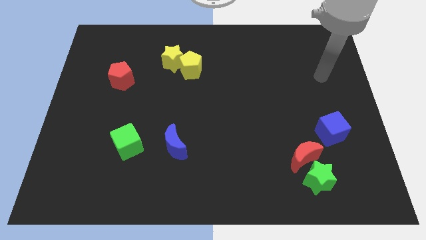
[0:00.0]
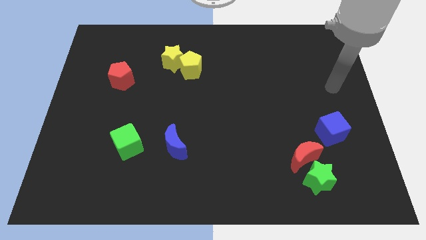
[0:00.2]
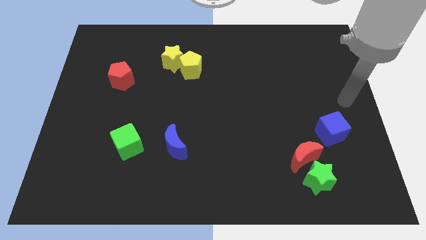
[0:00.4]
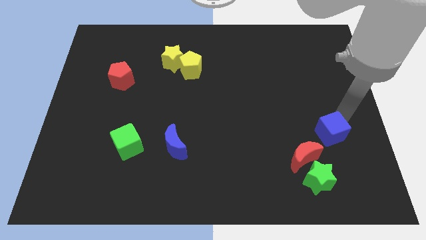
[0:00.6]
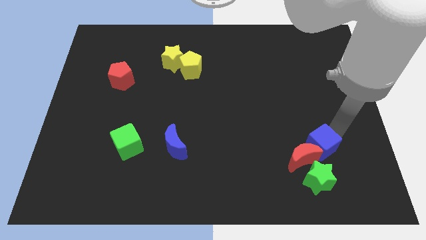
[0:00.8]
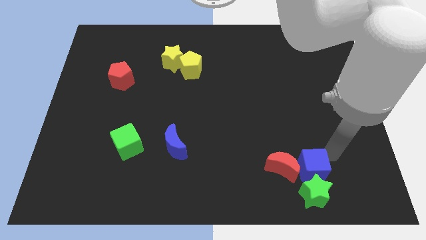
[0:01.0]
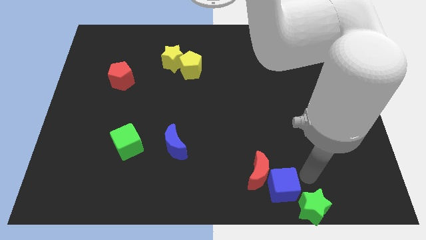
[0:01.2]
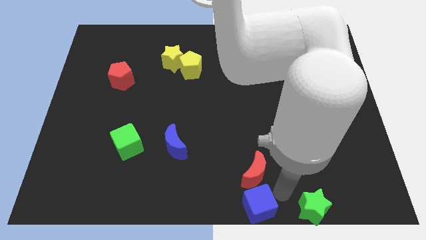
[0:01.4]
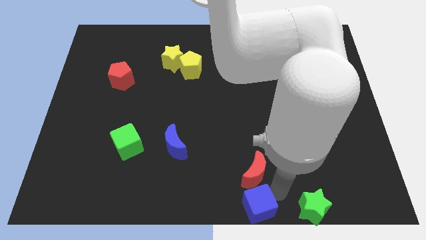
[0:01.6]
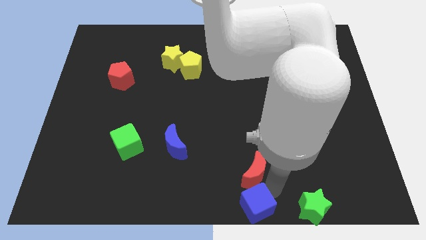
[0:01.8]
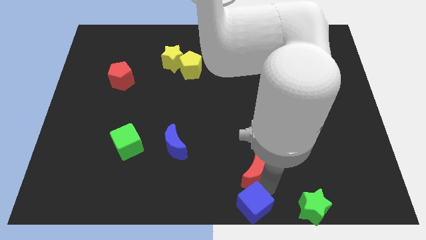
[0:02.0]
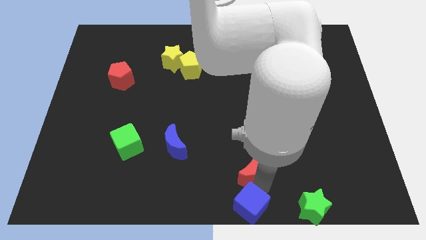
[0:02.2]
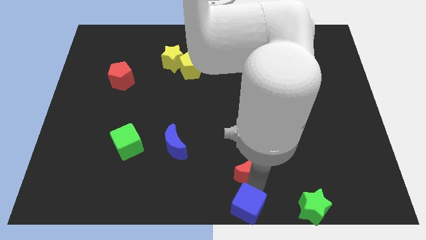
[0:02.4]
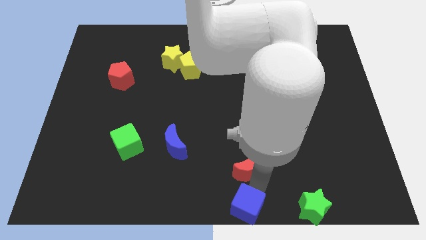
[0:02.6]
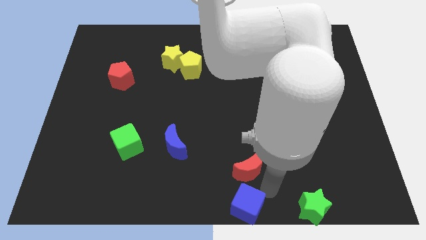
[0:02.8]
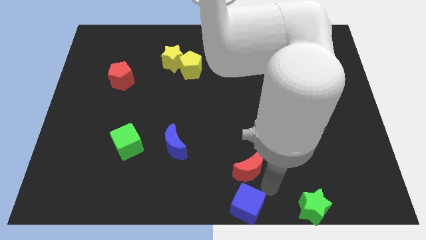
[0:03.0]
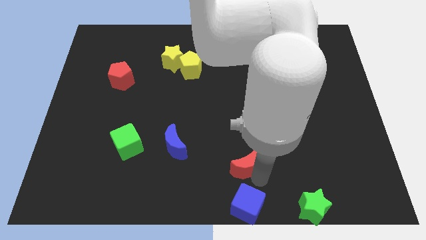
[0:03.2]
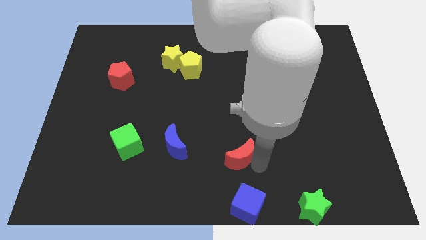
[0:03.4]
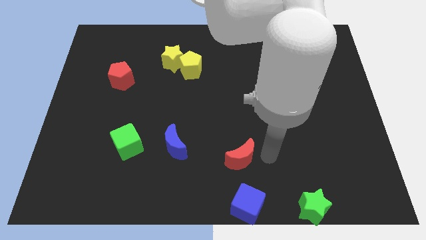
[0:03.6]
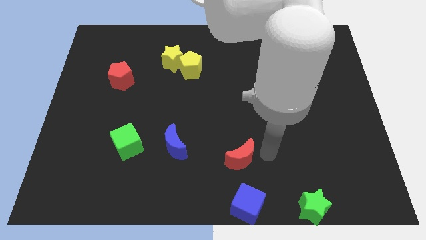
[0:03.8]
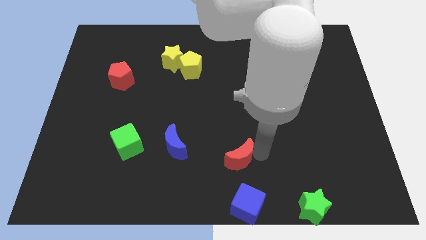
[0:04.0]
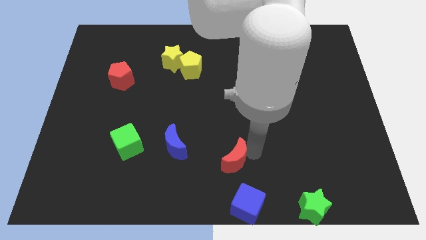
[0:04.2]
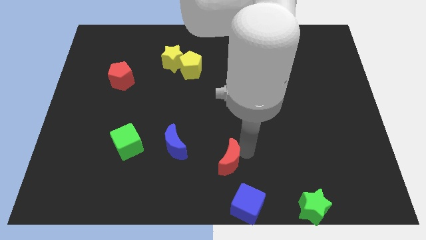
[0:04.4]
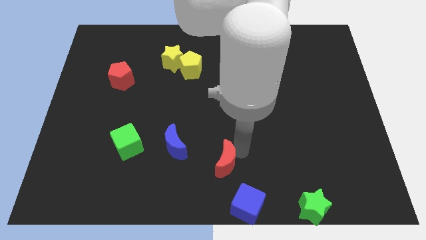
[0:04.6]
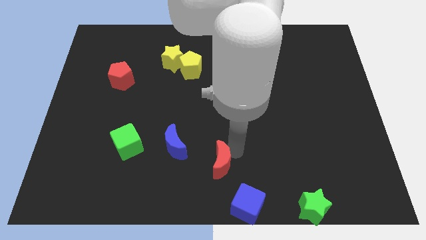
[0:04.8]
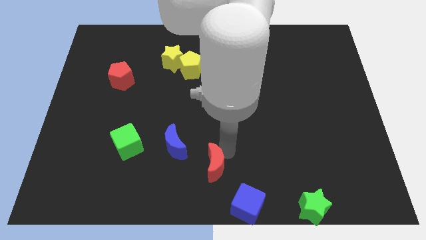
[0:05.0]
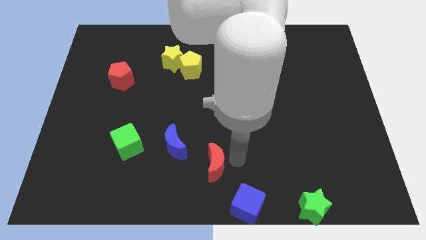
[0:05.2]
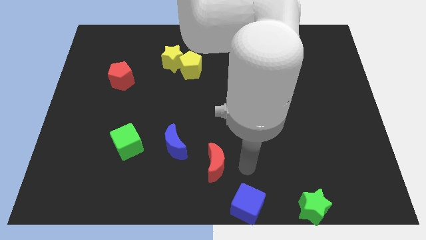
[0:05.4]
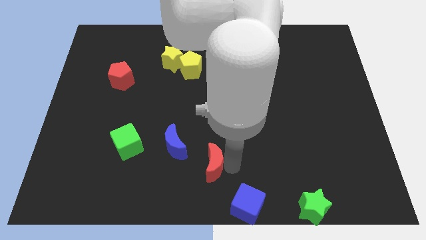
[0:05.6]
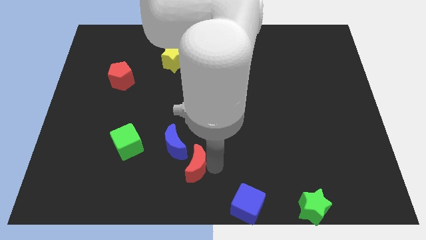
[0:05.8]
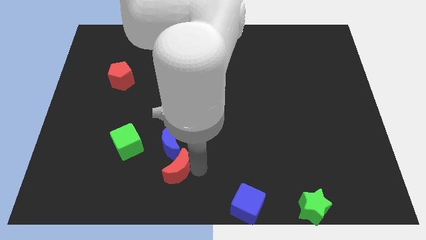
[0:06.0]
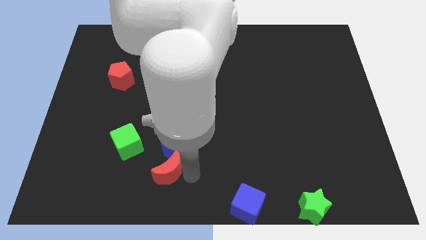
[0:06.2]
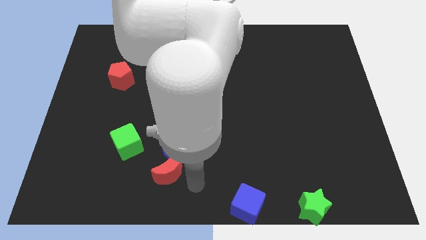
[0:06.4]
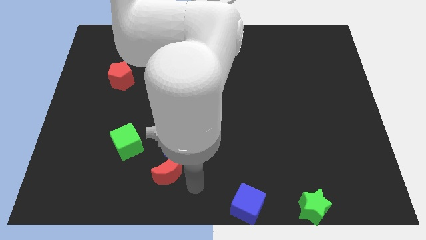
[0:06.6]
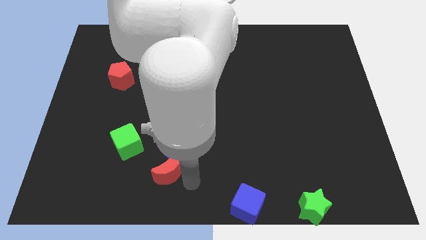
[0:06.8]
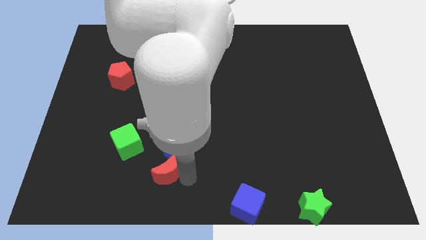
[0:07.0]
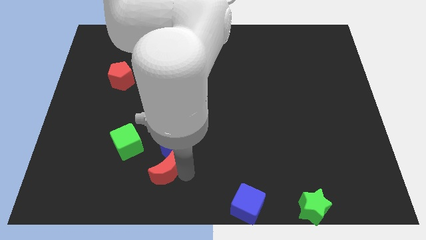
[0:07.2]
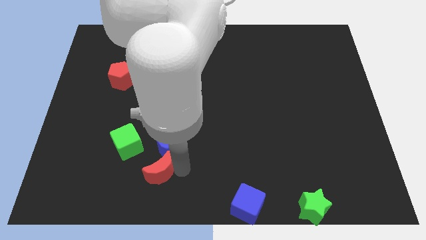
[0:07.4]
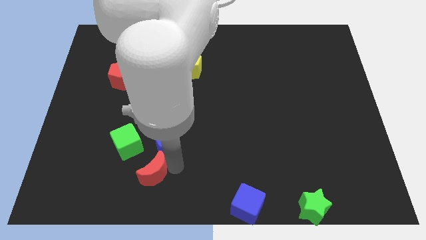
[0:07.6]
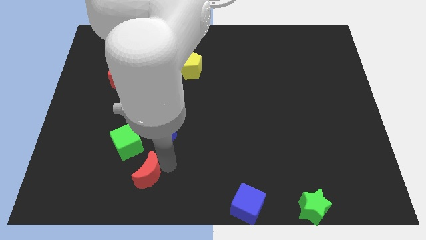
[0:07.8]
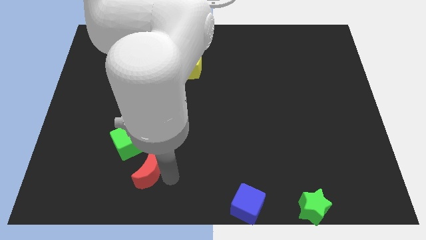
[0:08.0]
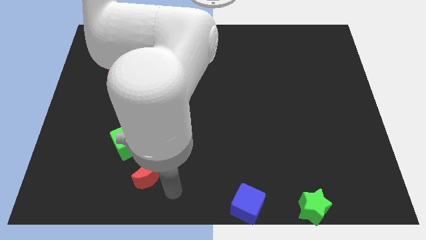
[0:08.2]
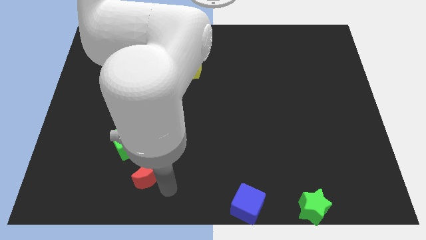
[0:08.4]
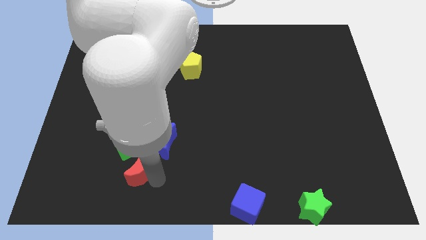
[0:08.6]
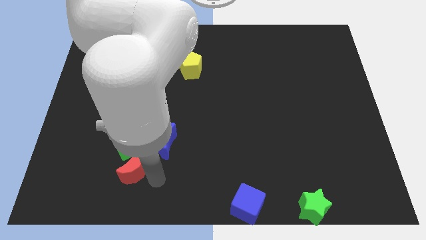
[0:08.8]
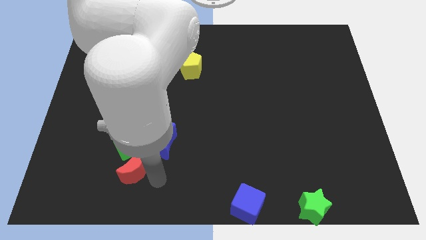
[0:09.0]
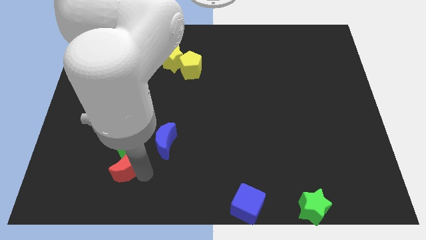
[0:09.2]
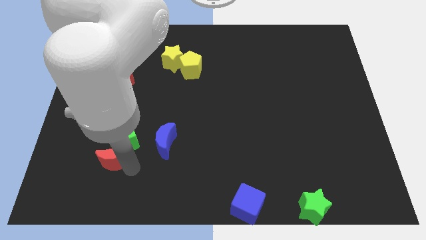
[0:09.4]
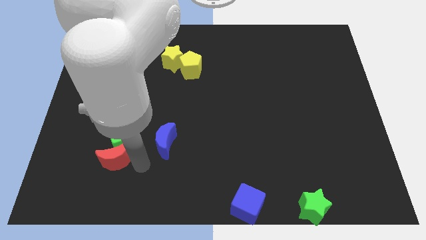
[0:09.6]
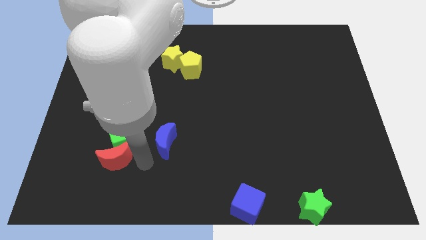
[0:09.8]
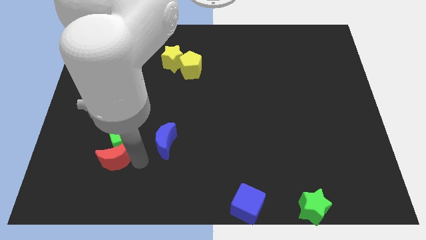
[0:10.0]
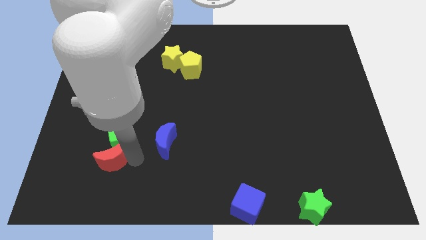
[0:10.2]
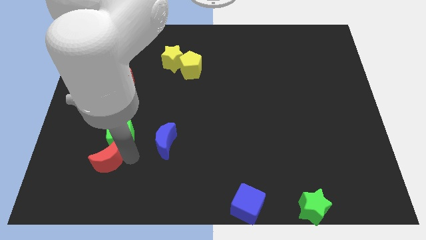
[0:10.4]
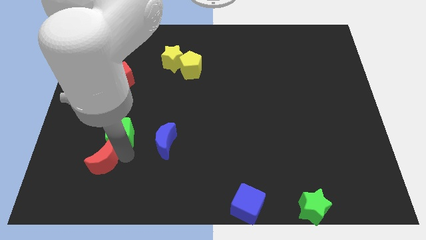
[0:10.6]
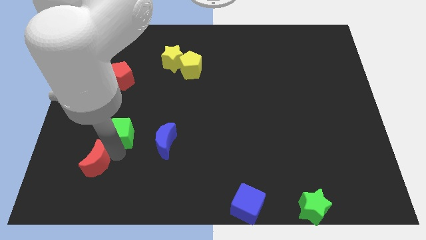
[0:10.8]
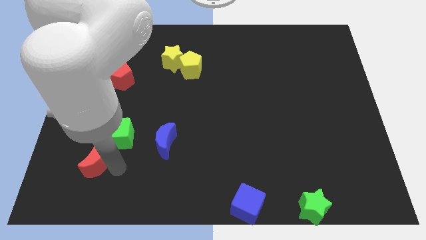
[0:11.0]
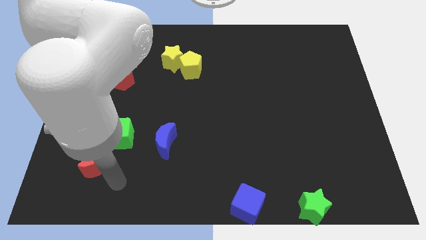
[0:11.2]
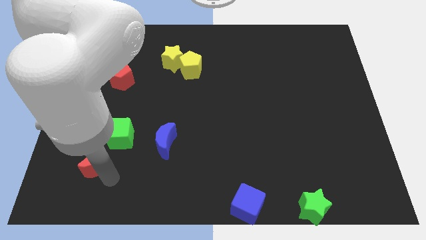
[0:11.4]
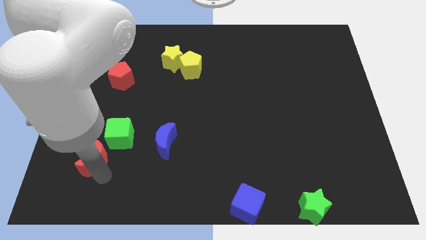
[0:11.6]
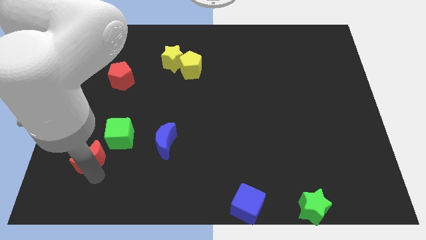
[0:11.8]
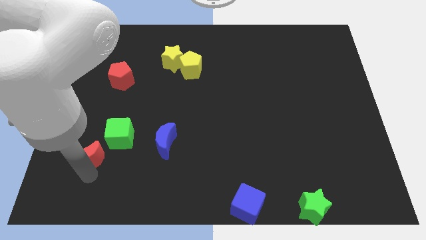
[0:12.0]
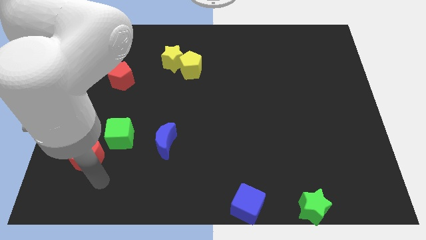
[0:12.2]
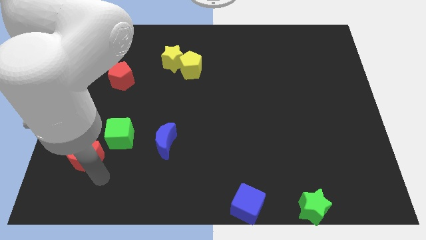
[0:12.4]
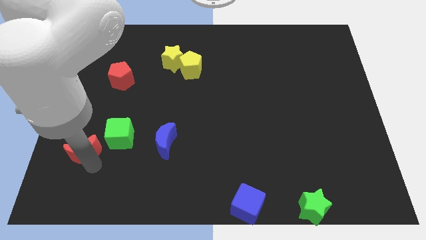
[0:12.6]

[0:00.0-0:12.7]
push the red moon to the left of the green cube
